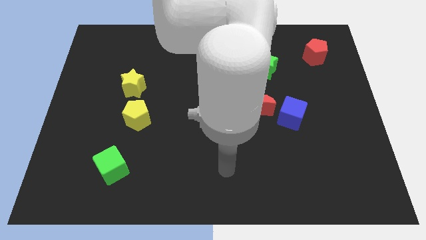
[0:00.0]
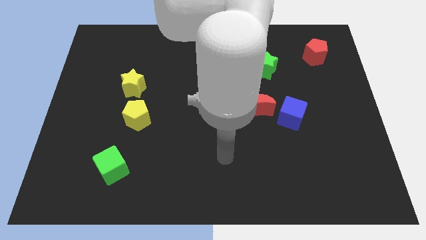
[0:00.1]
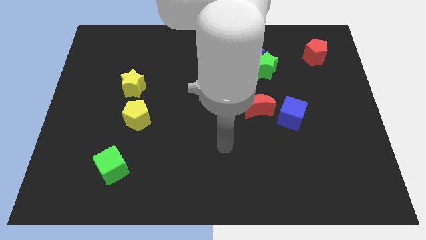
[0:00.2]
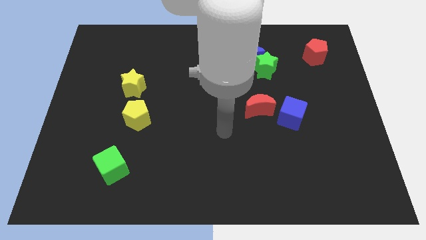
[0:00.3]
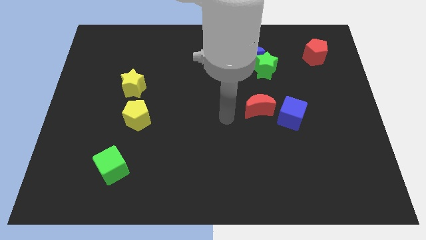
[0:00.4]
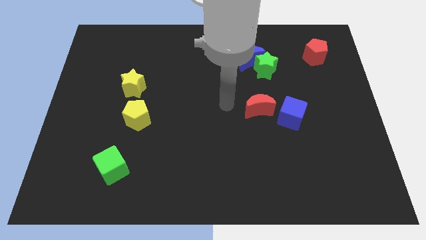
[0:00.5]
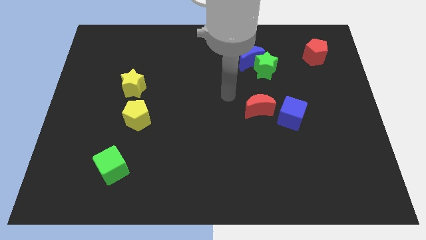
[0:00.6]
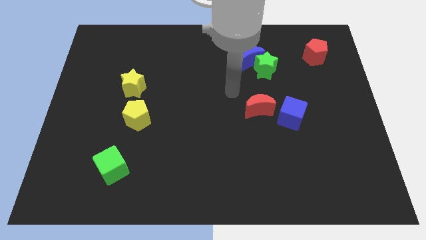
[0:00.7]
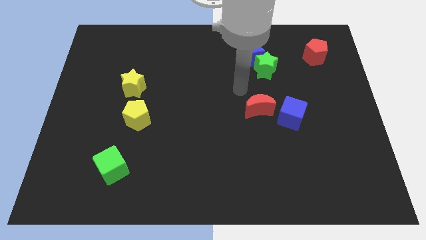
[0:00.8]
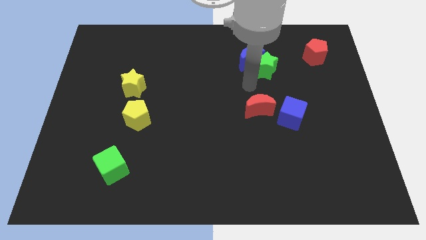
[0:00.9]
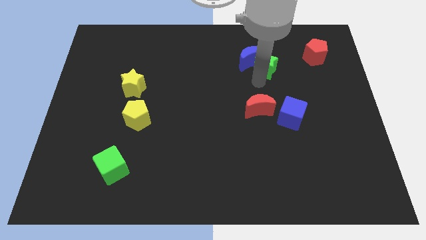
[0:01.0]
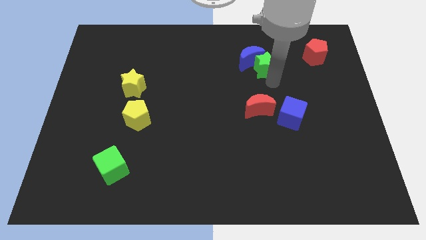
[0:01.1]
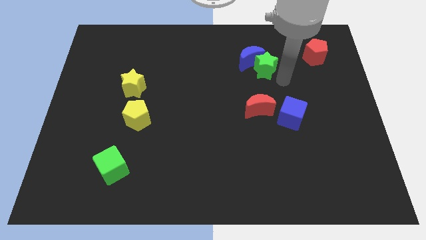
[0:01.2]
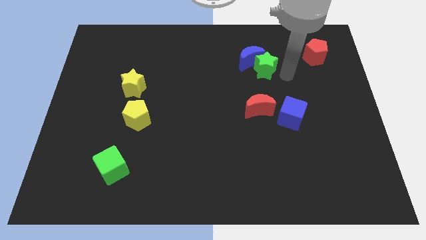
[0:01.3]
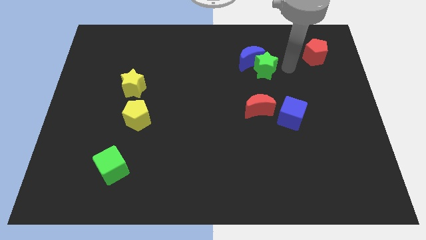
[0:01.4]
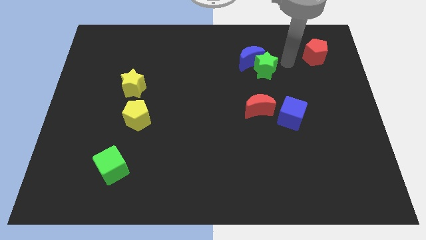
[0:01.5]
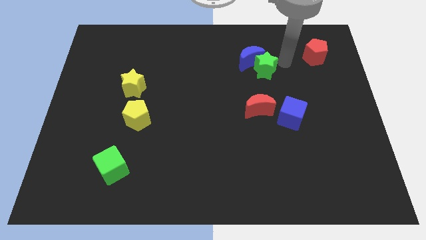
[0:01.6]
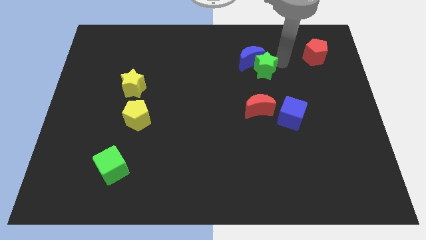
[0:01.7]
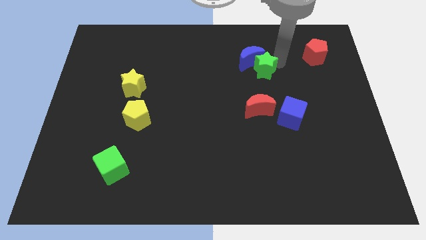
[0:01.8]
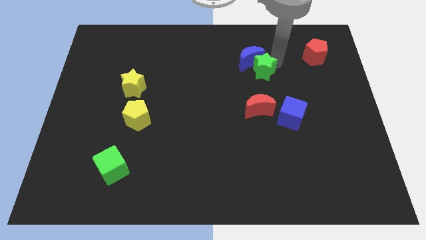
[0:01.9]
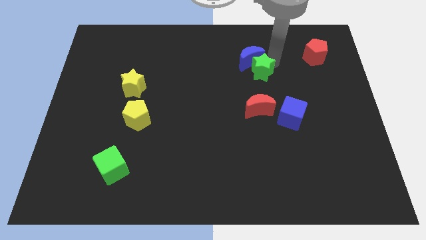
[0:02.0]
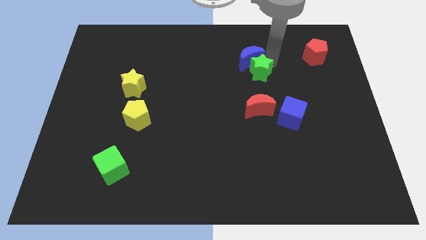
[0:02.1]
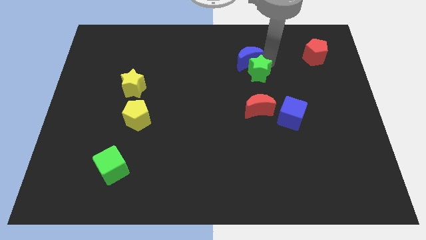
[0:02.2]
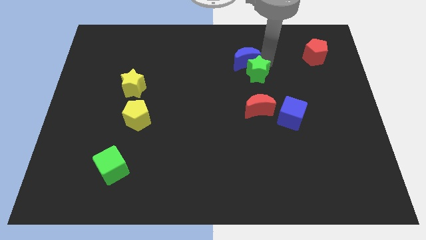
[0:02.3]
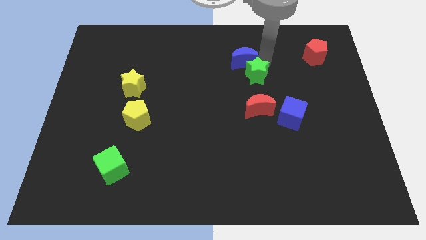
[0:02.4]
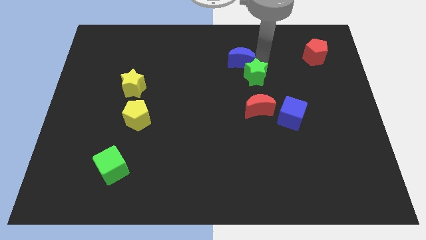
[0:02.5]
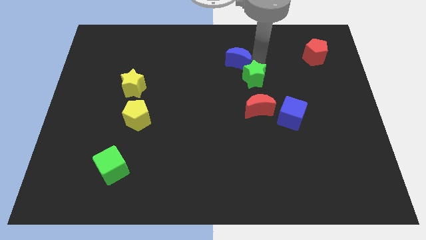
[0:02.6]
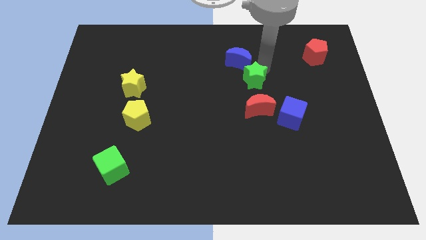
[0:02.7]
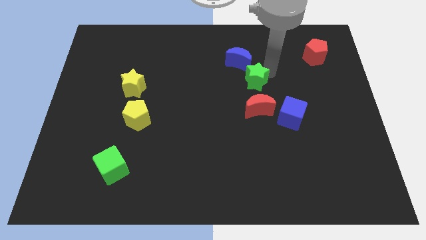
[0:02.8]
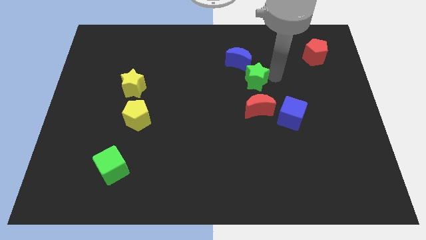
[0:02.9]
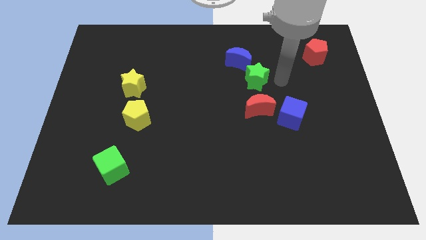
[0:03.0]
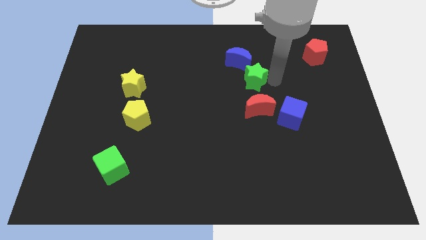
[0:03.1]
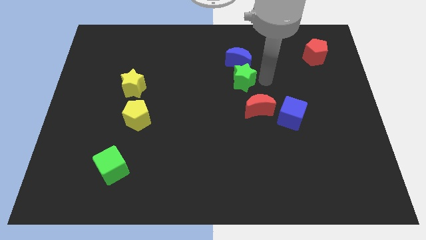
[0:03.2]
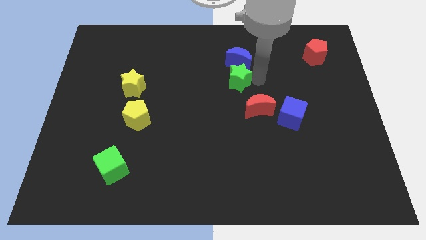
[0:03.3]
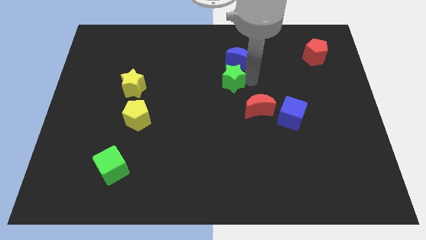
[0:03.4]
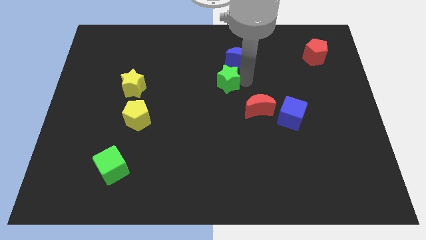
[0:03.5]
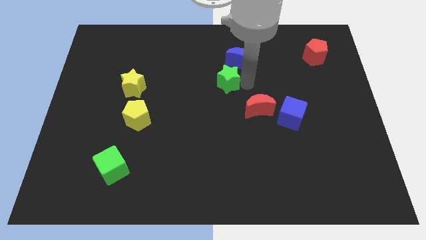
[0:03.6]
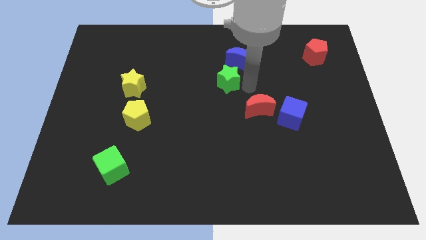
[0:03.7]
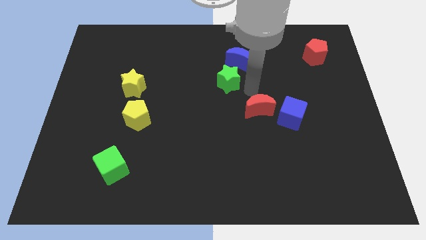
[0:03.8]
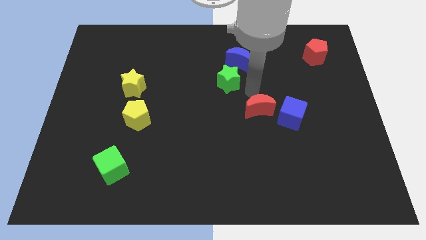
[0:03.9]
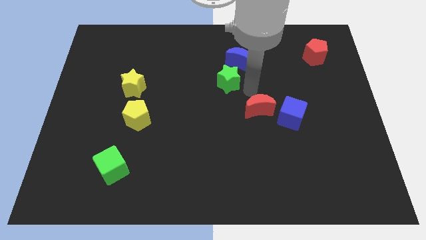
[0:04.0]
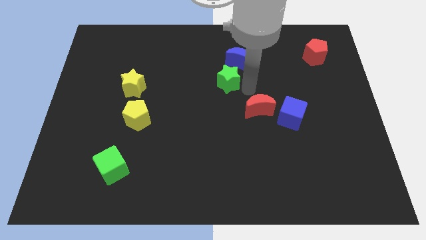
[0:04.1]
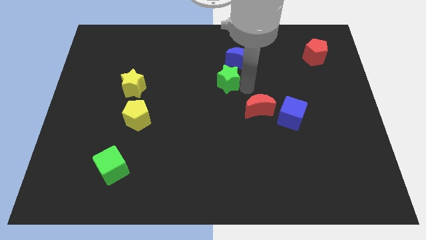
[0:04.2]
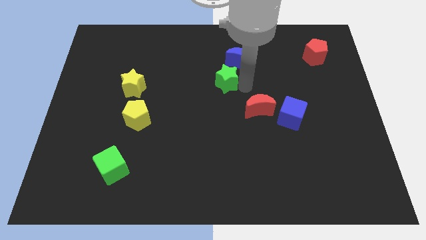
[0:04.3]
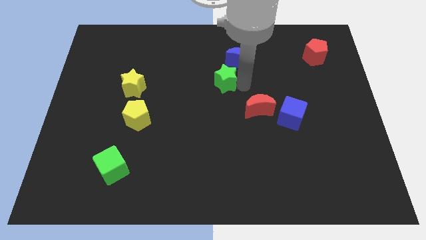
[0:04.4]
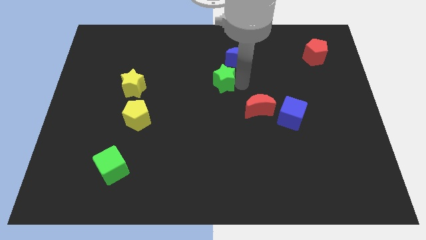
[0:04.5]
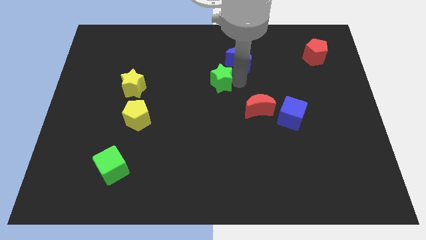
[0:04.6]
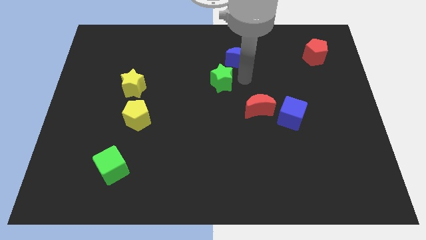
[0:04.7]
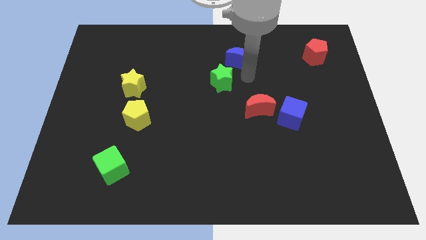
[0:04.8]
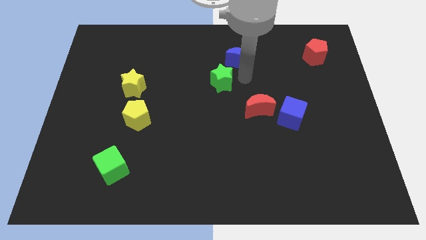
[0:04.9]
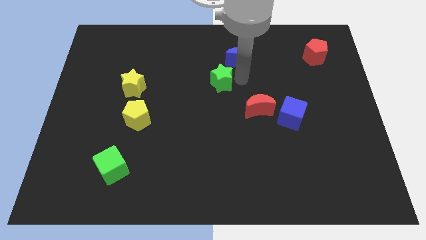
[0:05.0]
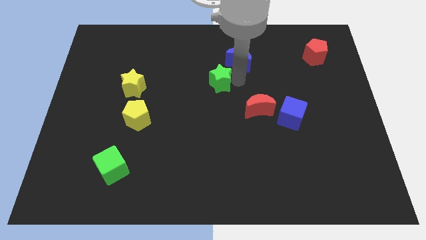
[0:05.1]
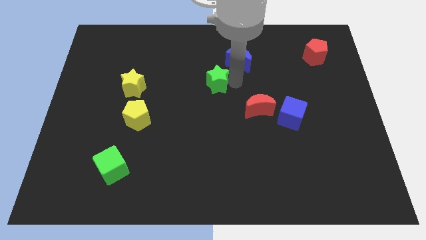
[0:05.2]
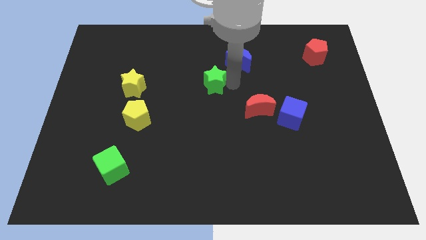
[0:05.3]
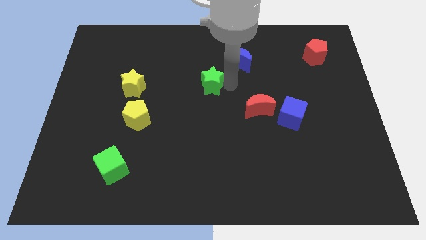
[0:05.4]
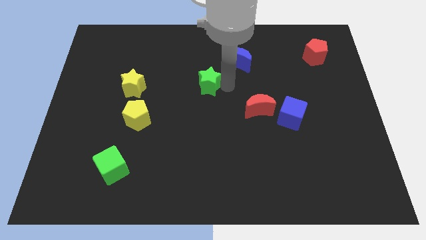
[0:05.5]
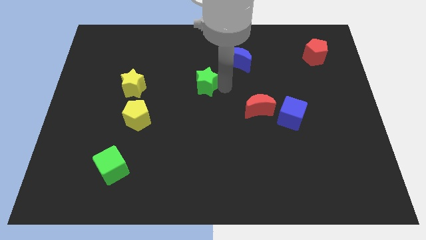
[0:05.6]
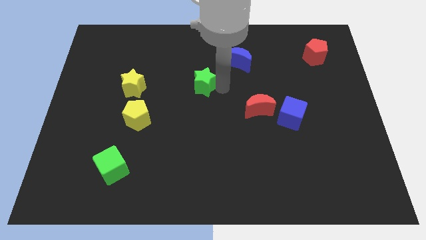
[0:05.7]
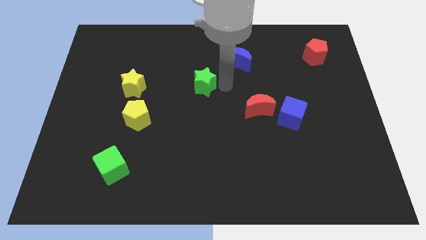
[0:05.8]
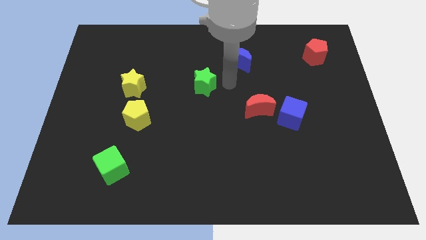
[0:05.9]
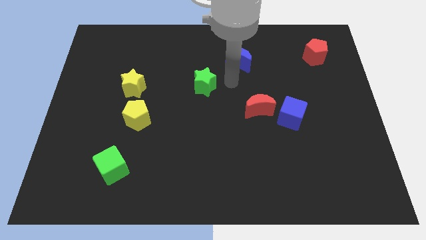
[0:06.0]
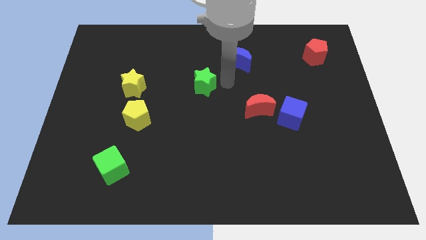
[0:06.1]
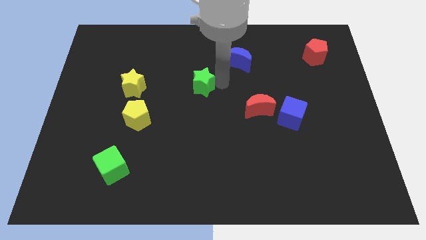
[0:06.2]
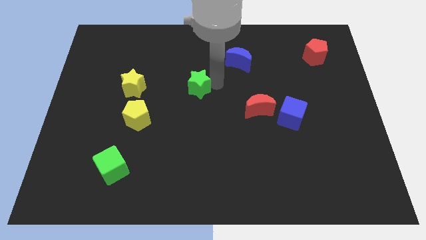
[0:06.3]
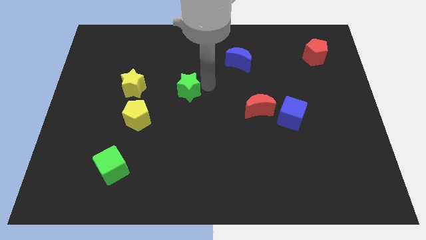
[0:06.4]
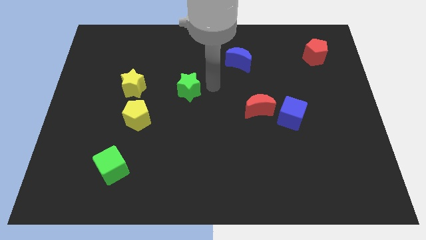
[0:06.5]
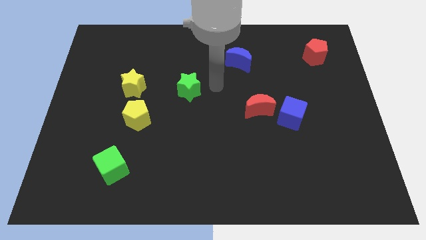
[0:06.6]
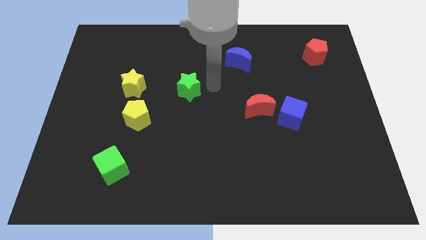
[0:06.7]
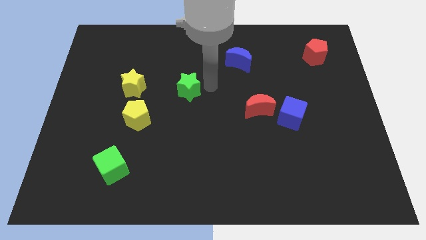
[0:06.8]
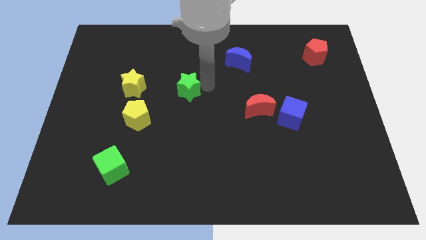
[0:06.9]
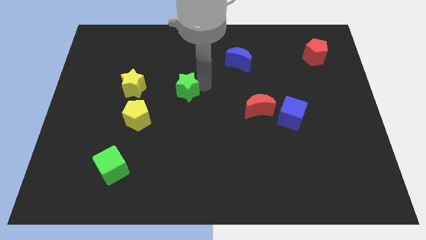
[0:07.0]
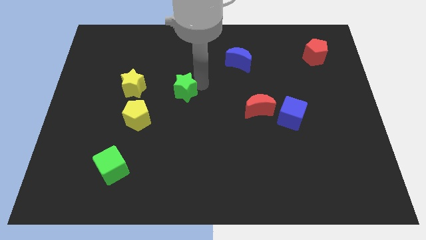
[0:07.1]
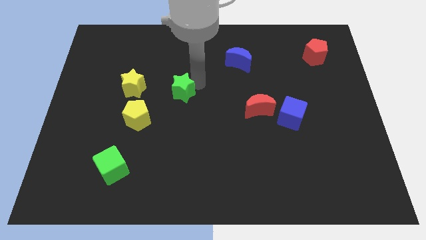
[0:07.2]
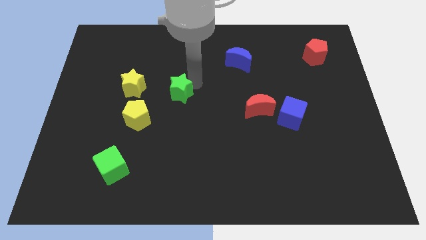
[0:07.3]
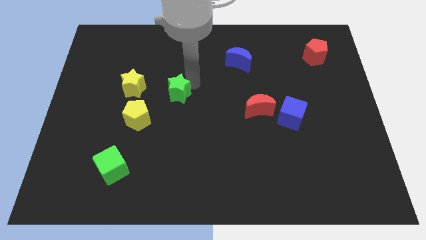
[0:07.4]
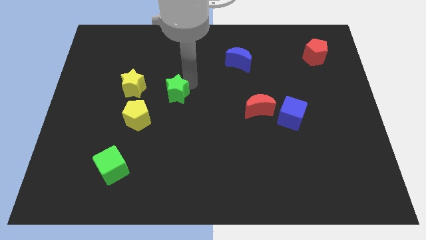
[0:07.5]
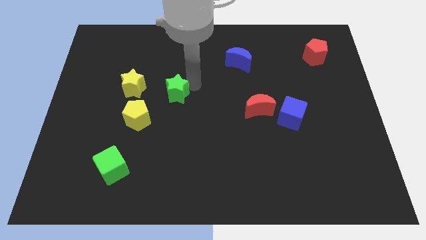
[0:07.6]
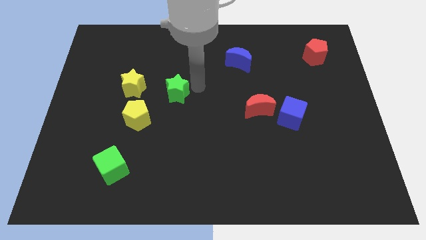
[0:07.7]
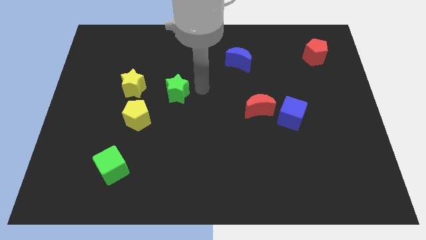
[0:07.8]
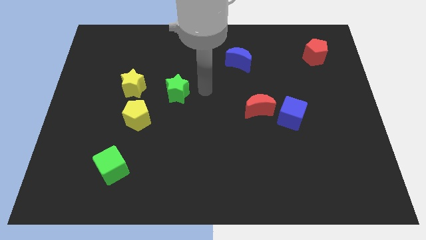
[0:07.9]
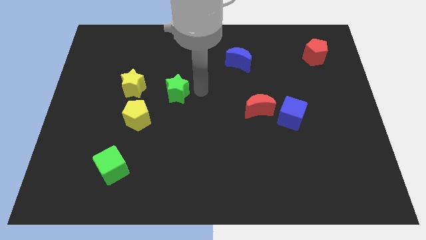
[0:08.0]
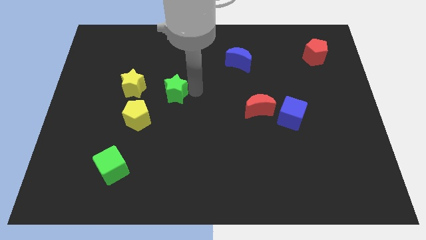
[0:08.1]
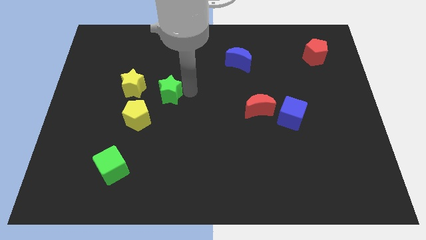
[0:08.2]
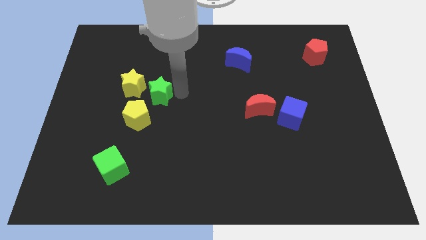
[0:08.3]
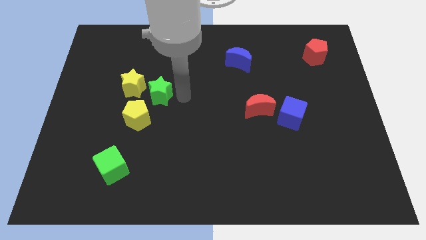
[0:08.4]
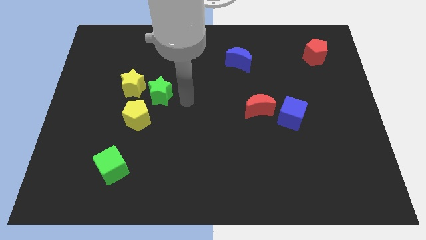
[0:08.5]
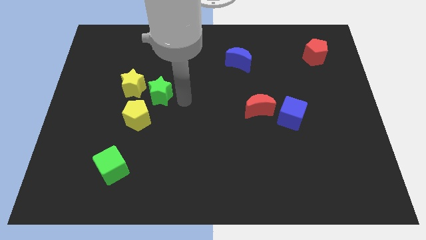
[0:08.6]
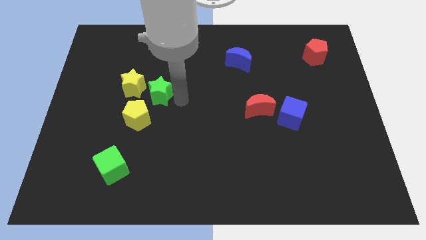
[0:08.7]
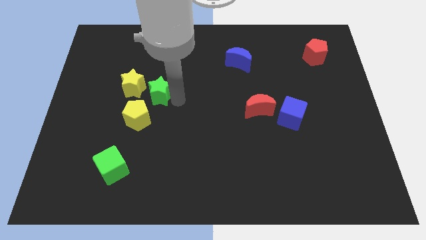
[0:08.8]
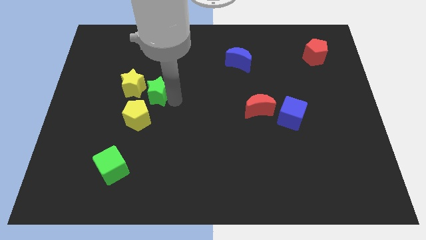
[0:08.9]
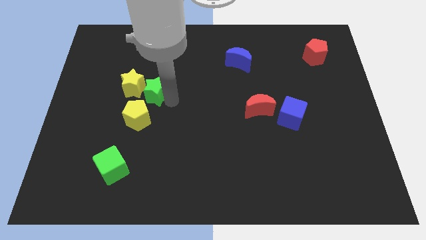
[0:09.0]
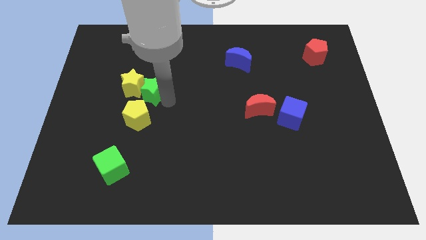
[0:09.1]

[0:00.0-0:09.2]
move the green star next to the yellow star
